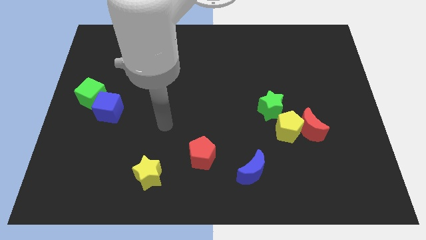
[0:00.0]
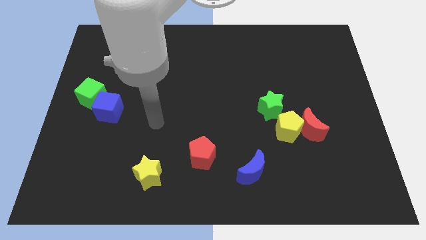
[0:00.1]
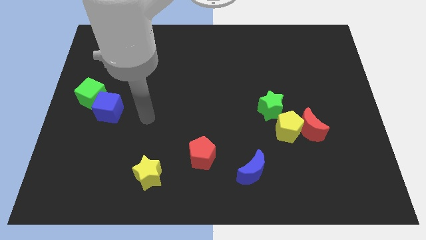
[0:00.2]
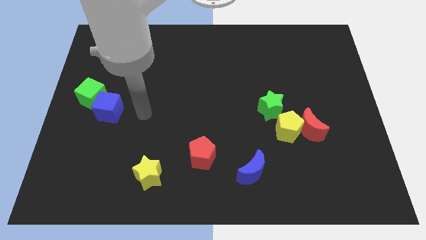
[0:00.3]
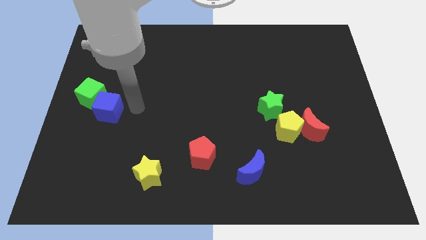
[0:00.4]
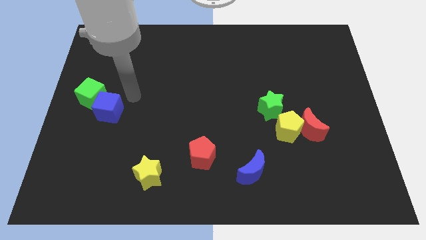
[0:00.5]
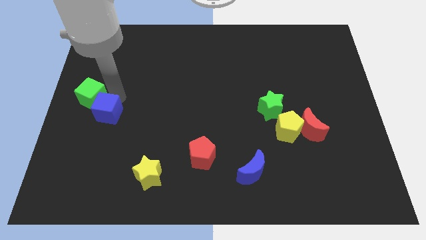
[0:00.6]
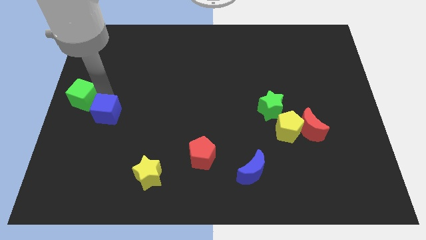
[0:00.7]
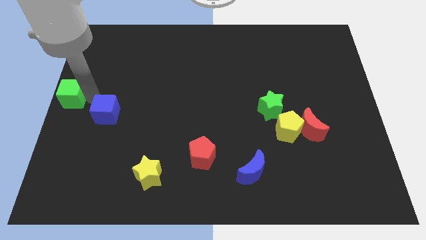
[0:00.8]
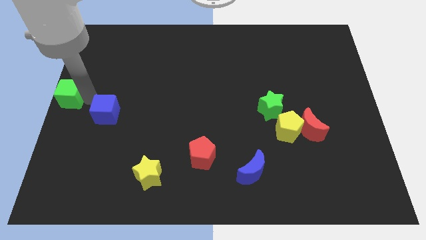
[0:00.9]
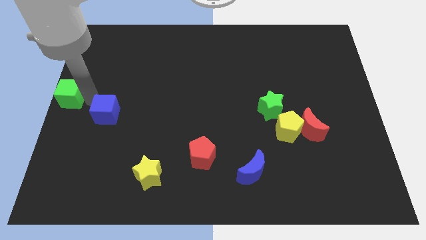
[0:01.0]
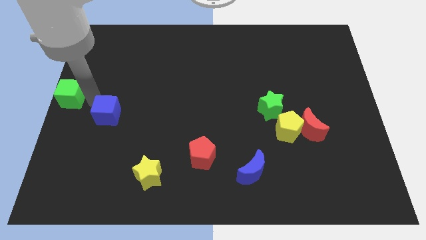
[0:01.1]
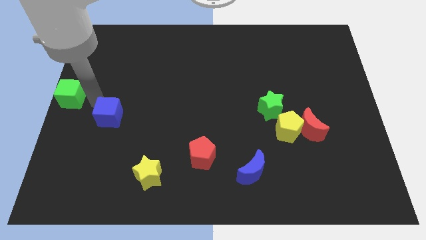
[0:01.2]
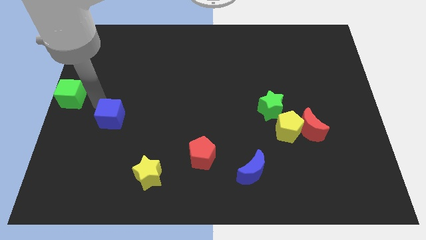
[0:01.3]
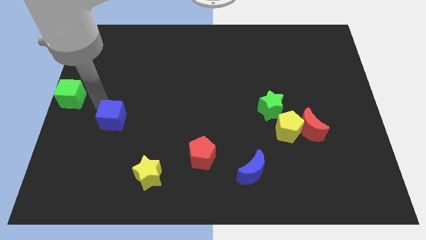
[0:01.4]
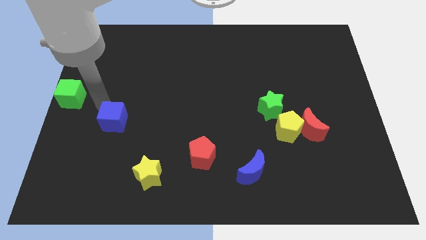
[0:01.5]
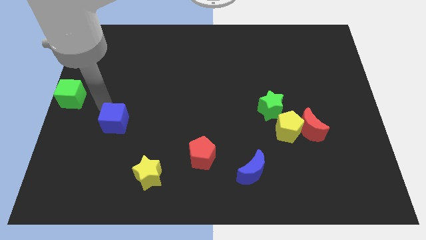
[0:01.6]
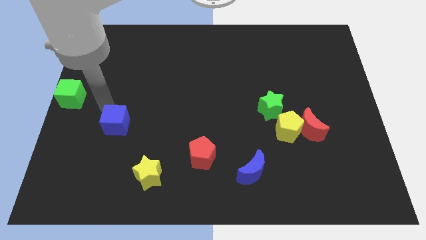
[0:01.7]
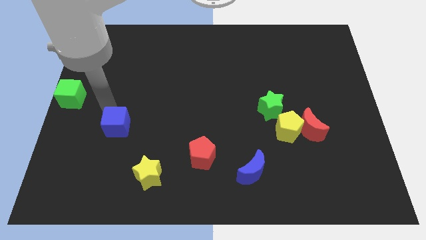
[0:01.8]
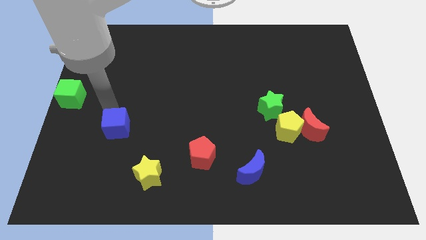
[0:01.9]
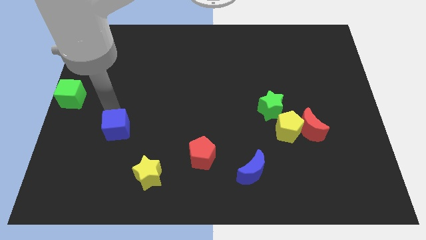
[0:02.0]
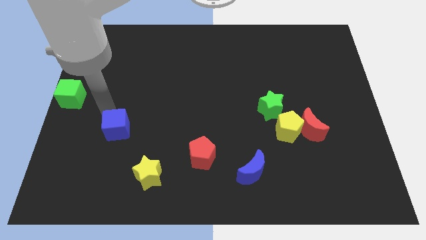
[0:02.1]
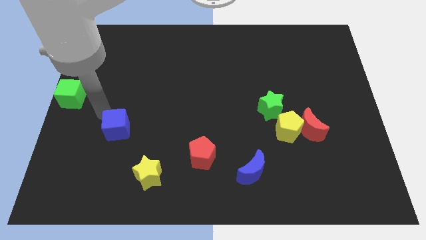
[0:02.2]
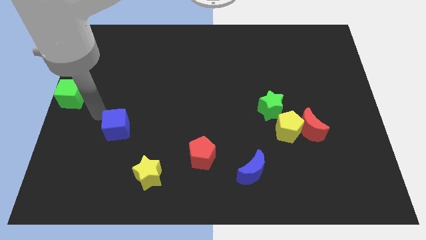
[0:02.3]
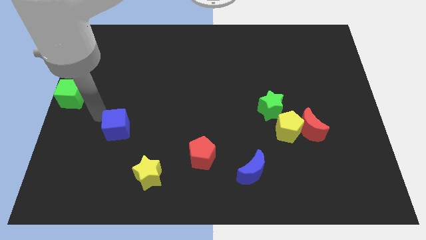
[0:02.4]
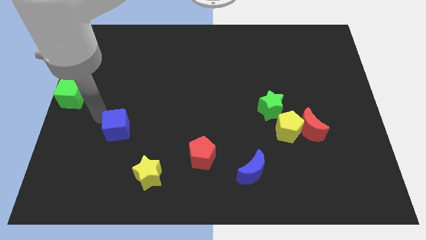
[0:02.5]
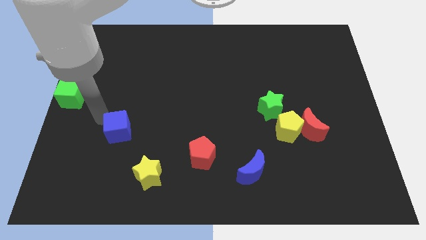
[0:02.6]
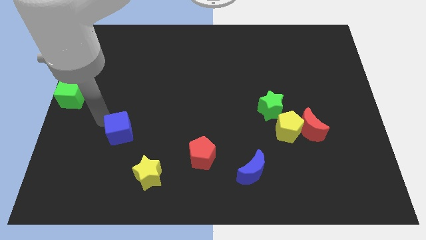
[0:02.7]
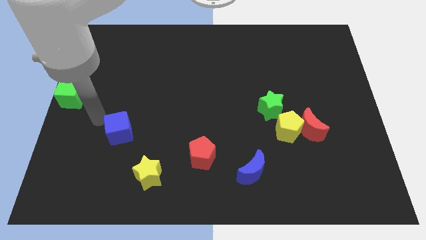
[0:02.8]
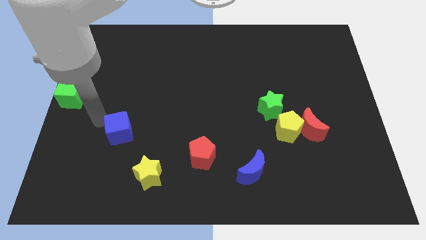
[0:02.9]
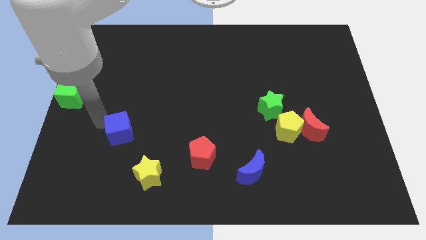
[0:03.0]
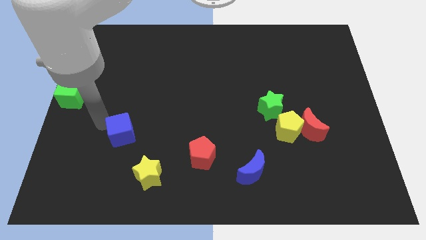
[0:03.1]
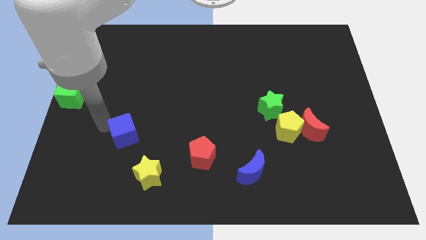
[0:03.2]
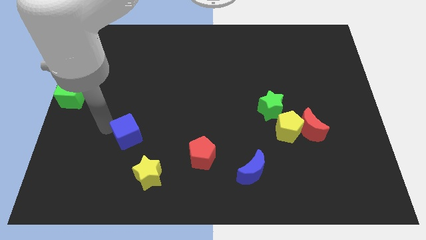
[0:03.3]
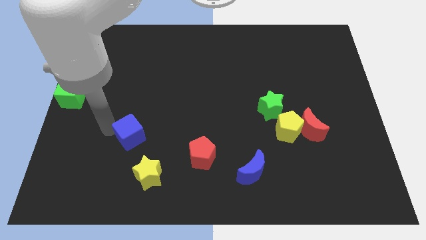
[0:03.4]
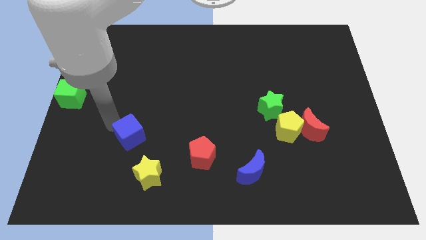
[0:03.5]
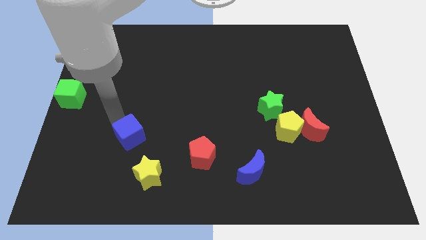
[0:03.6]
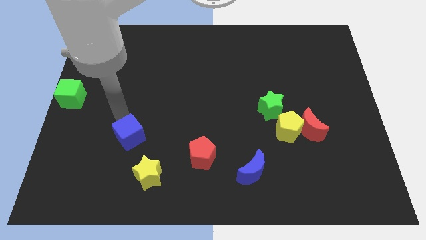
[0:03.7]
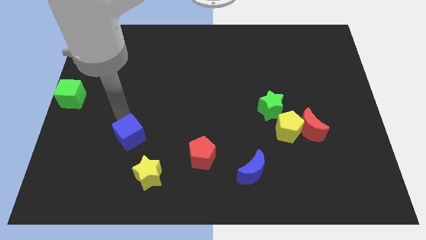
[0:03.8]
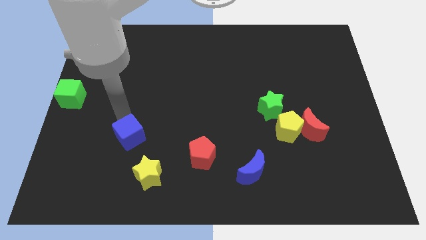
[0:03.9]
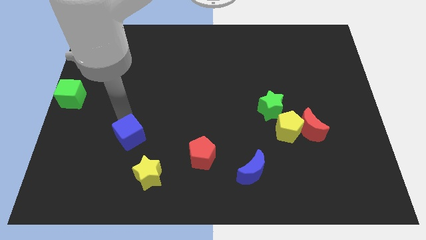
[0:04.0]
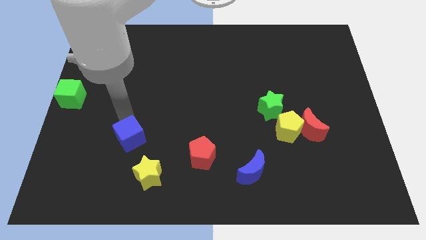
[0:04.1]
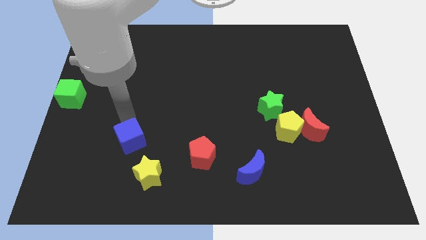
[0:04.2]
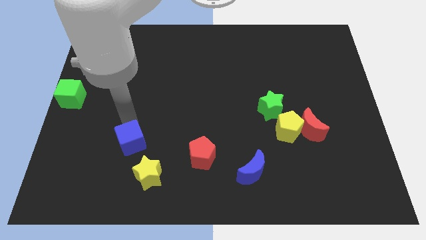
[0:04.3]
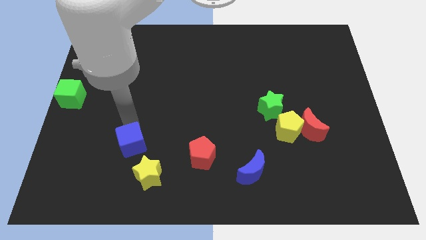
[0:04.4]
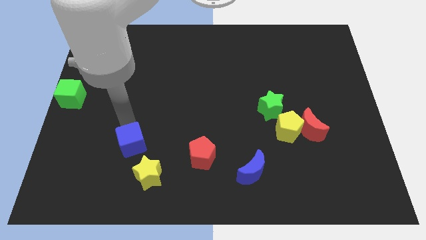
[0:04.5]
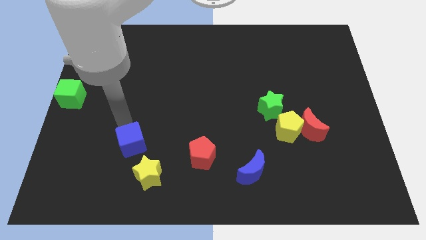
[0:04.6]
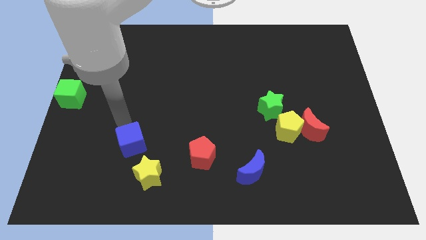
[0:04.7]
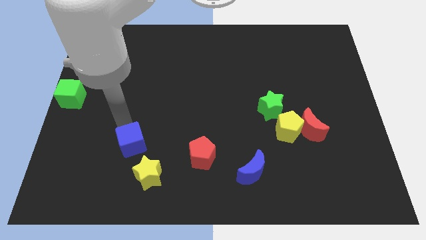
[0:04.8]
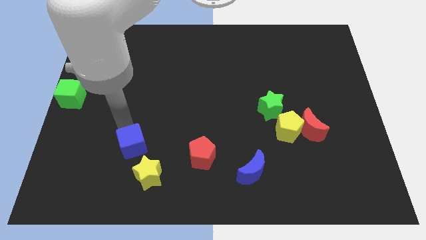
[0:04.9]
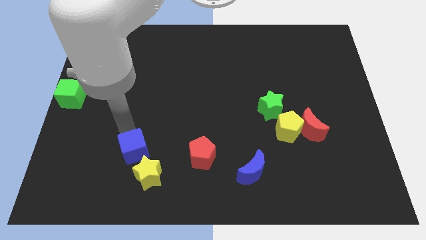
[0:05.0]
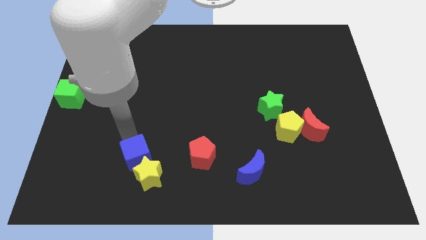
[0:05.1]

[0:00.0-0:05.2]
put the blue cube close to the yellow star

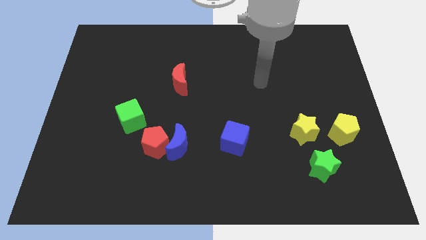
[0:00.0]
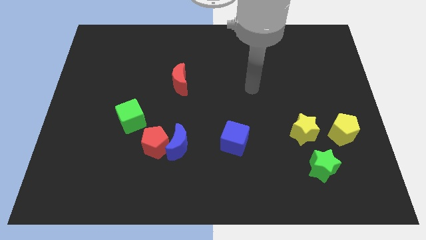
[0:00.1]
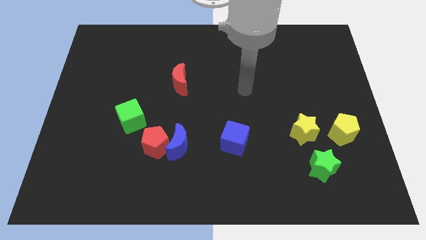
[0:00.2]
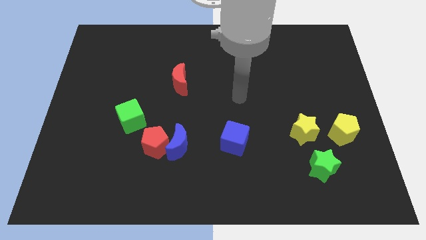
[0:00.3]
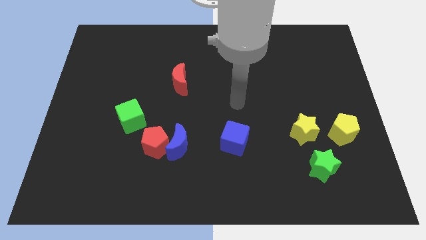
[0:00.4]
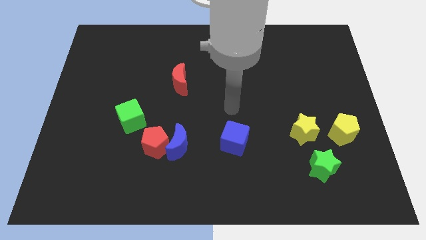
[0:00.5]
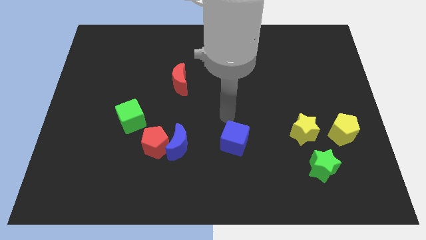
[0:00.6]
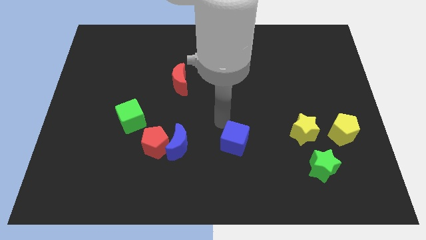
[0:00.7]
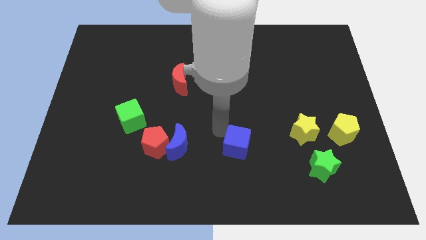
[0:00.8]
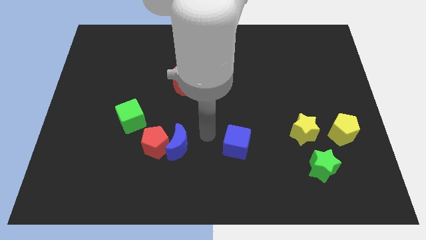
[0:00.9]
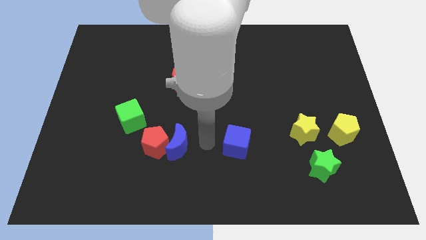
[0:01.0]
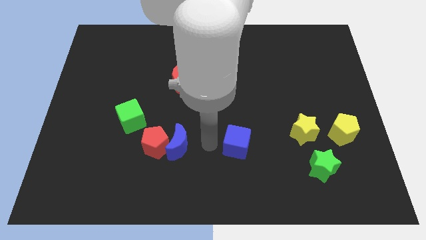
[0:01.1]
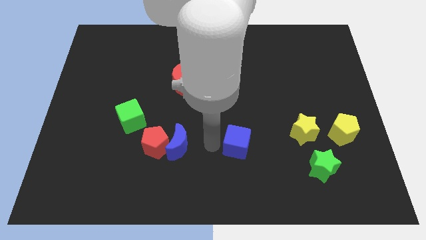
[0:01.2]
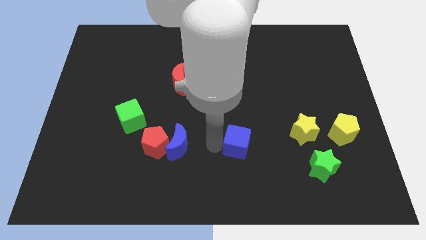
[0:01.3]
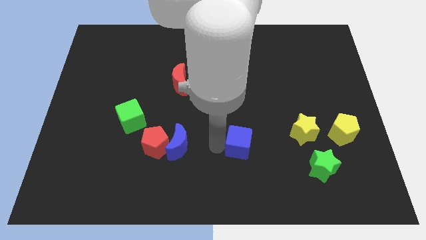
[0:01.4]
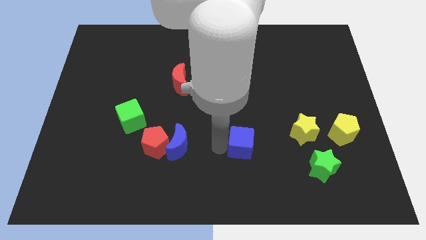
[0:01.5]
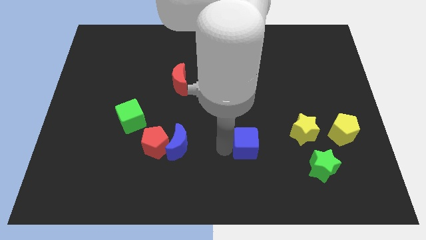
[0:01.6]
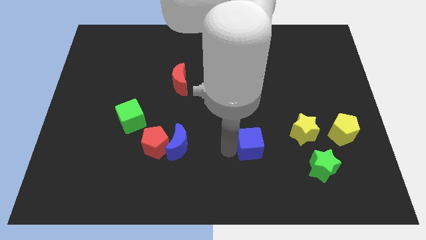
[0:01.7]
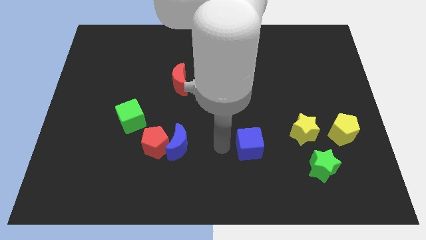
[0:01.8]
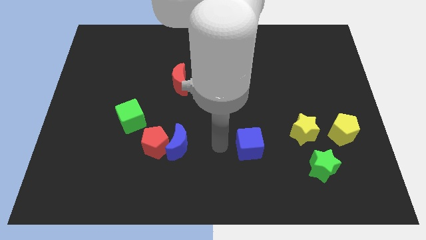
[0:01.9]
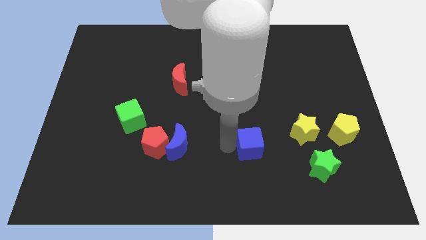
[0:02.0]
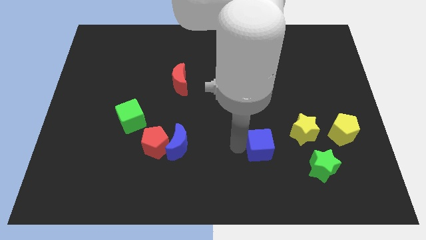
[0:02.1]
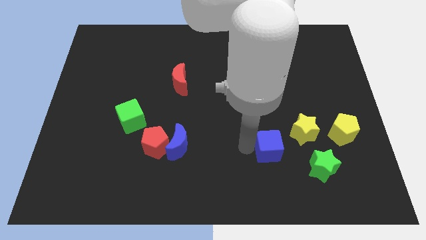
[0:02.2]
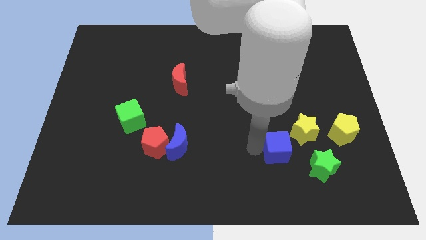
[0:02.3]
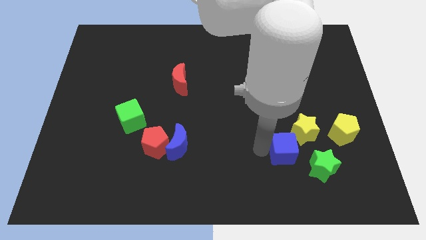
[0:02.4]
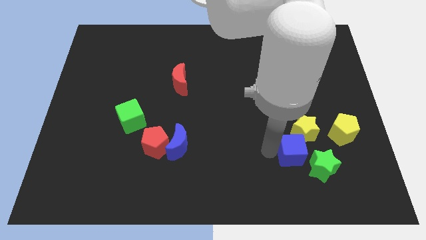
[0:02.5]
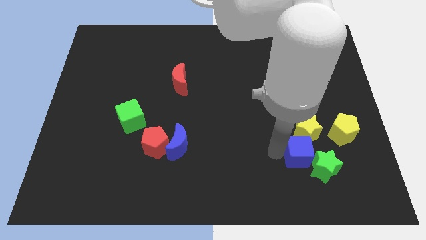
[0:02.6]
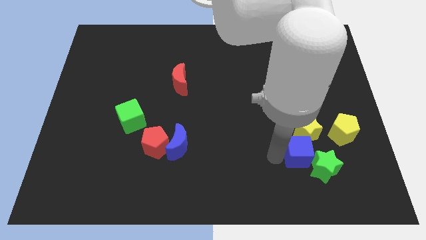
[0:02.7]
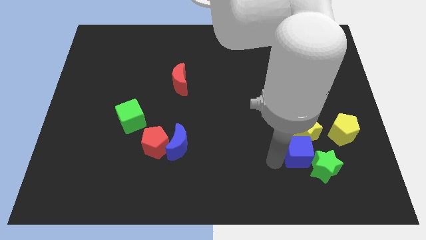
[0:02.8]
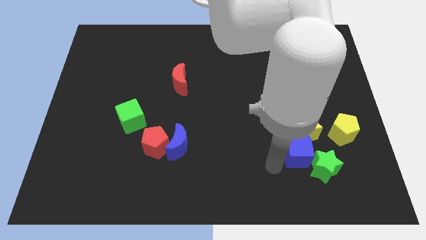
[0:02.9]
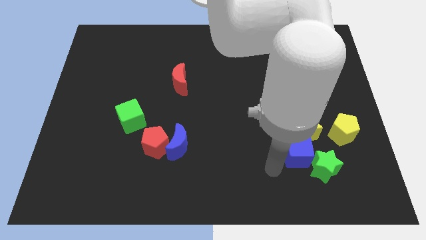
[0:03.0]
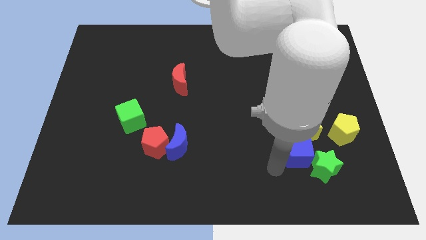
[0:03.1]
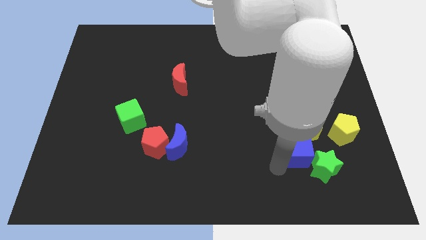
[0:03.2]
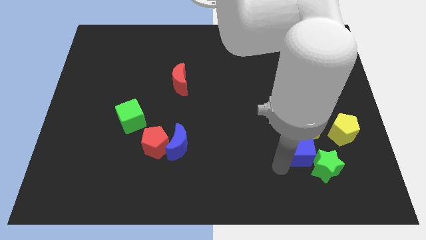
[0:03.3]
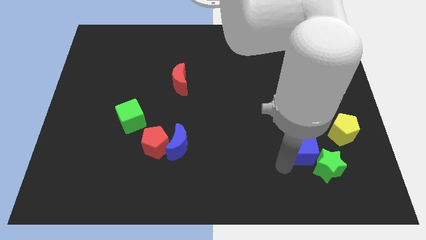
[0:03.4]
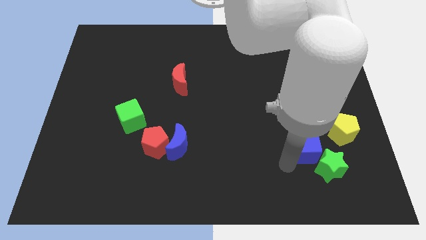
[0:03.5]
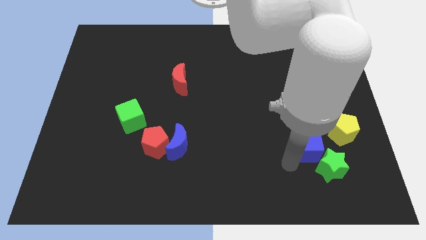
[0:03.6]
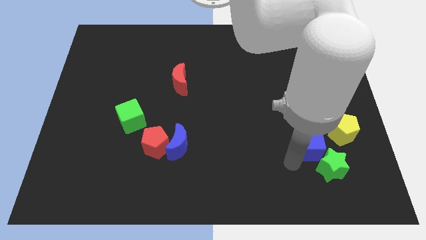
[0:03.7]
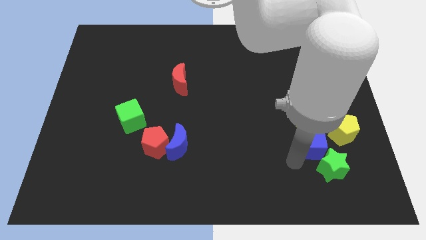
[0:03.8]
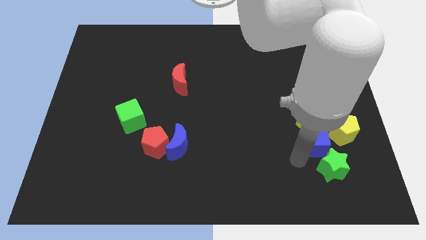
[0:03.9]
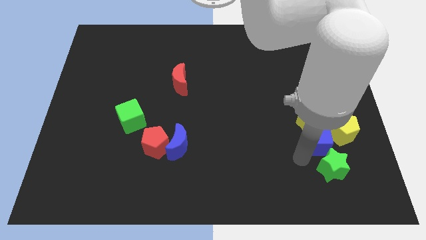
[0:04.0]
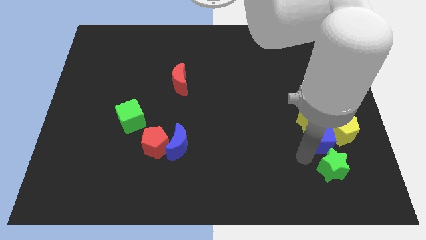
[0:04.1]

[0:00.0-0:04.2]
slide the blue cube to the yellow pentagon
